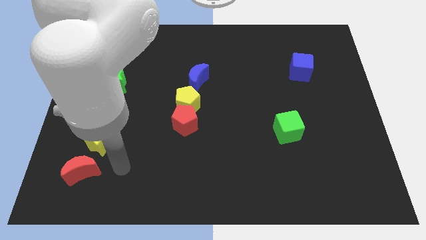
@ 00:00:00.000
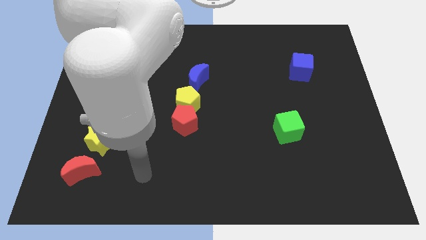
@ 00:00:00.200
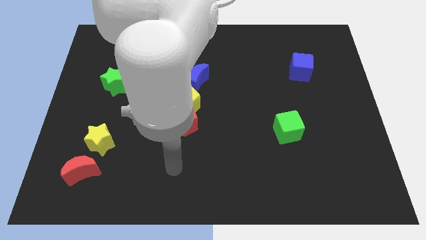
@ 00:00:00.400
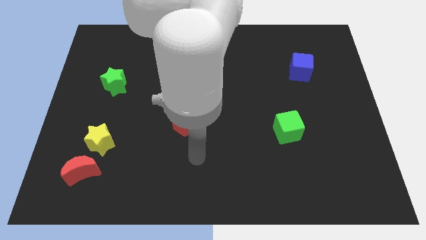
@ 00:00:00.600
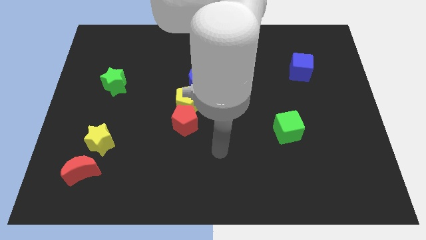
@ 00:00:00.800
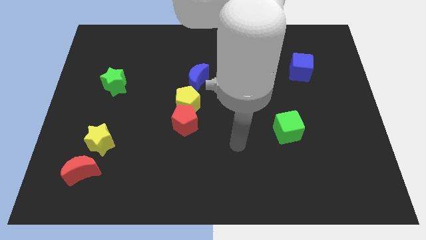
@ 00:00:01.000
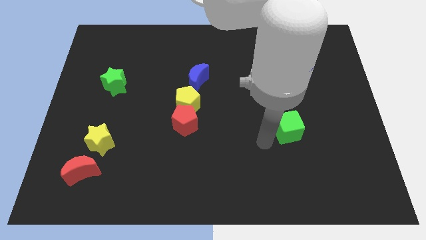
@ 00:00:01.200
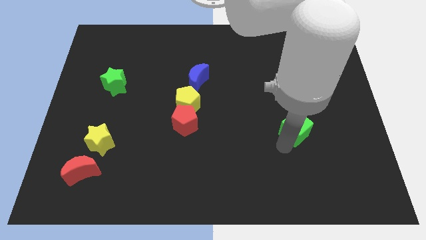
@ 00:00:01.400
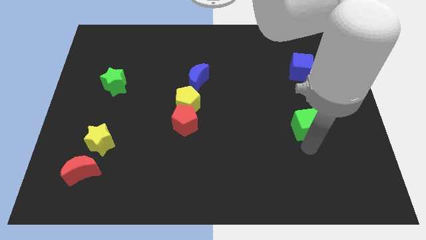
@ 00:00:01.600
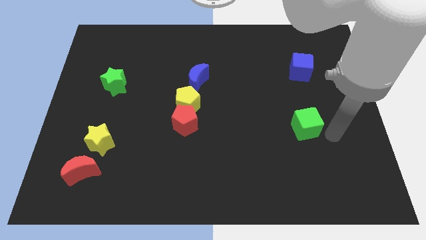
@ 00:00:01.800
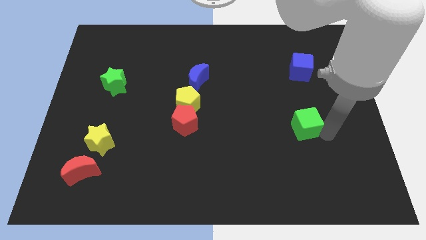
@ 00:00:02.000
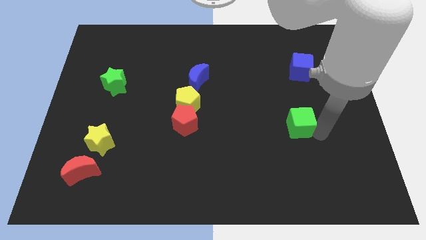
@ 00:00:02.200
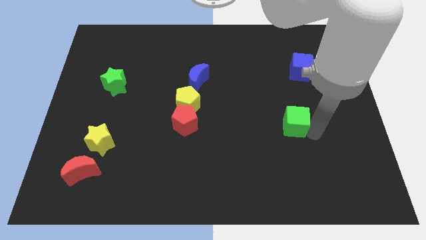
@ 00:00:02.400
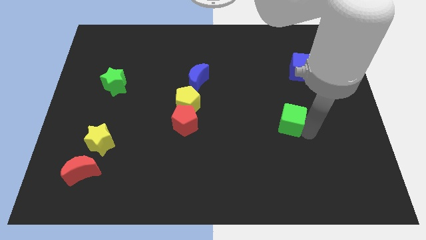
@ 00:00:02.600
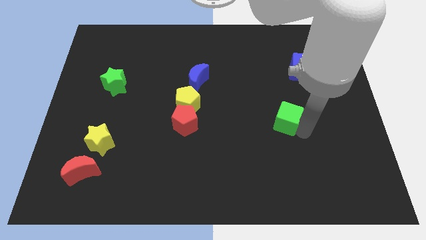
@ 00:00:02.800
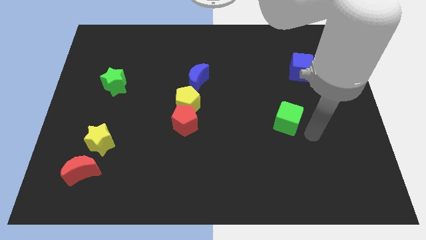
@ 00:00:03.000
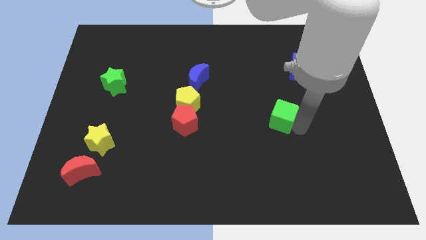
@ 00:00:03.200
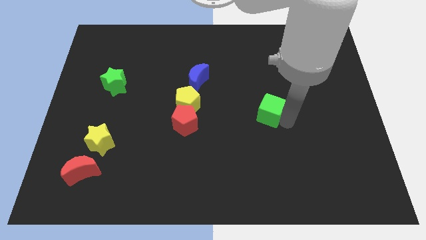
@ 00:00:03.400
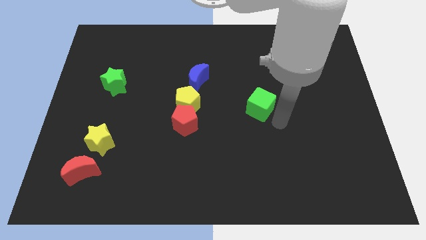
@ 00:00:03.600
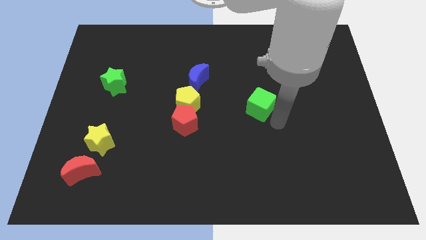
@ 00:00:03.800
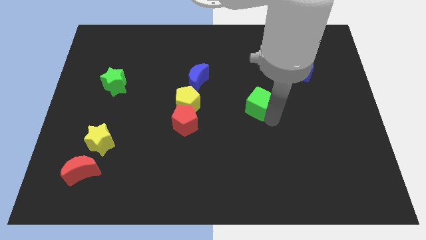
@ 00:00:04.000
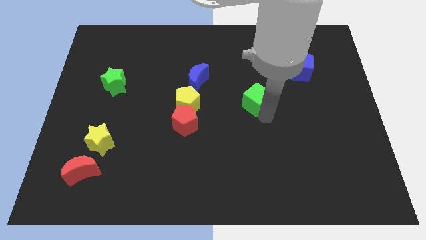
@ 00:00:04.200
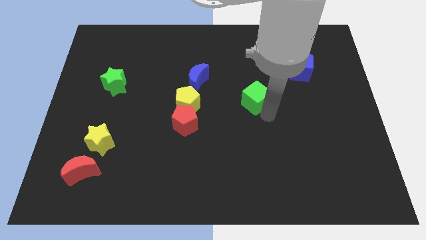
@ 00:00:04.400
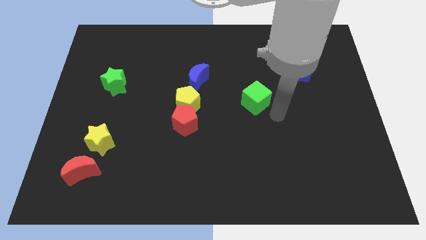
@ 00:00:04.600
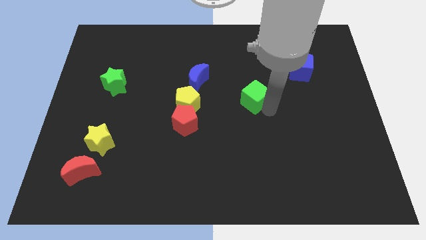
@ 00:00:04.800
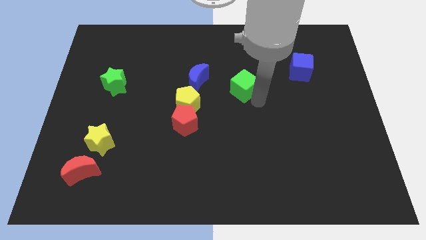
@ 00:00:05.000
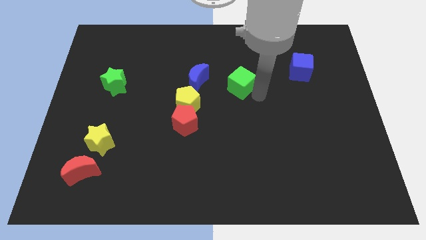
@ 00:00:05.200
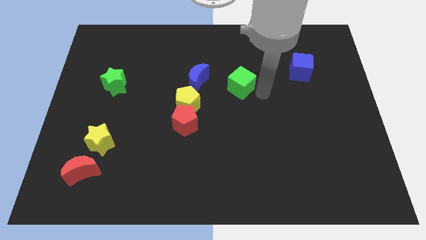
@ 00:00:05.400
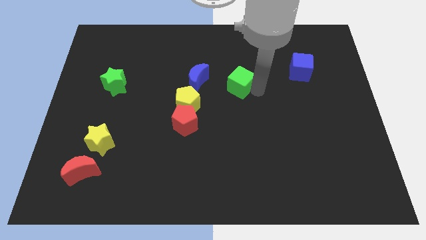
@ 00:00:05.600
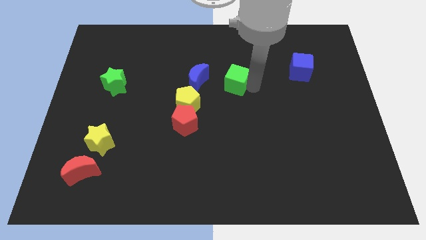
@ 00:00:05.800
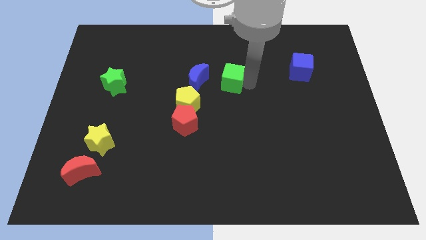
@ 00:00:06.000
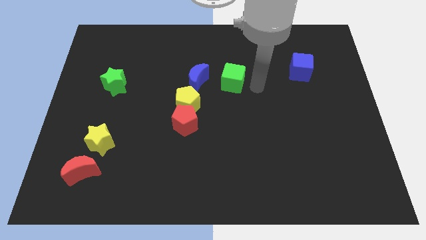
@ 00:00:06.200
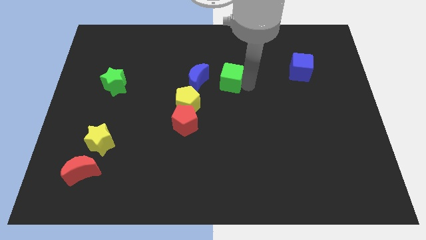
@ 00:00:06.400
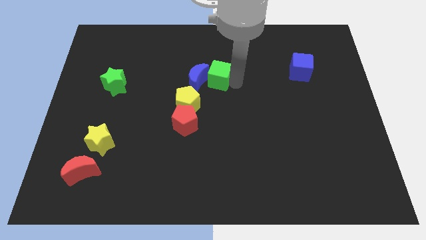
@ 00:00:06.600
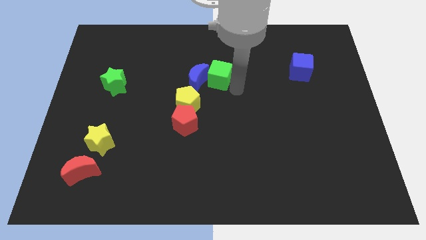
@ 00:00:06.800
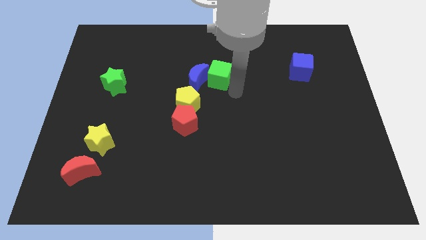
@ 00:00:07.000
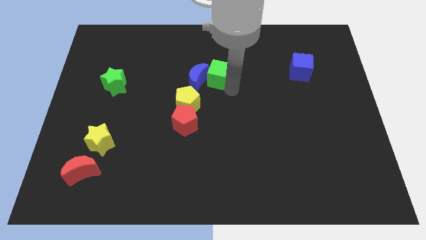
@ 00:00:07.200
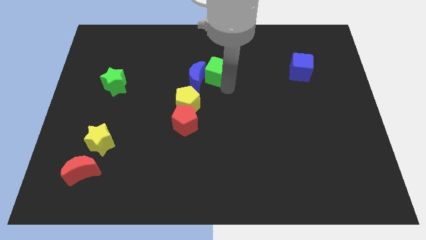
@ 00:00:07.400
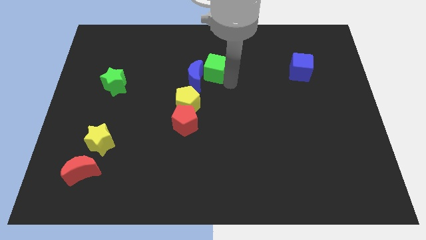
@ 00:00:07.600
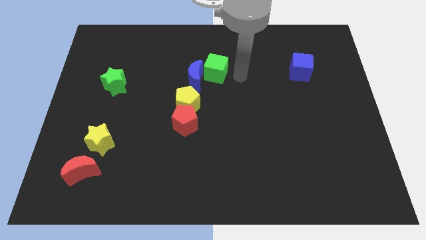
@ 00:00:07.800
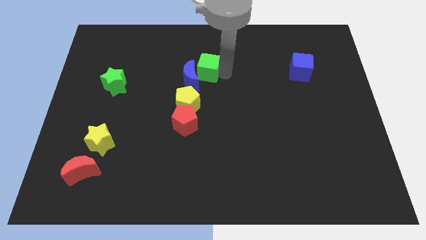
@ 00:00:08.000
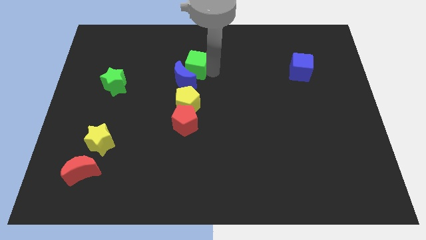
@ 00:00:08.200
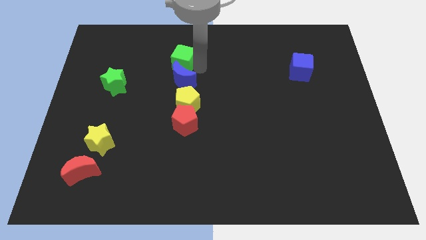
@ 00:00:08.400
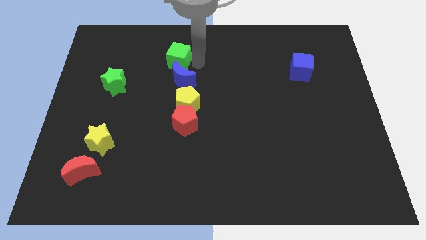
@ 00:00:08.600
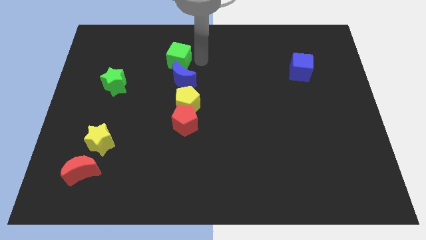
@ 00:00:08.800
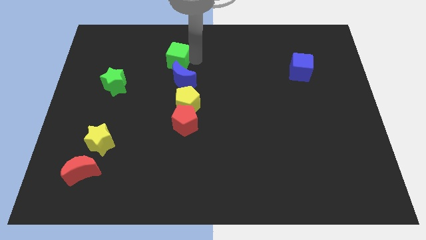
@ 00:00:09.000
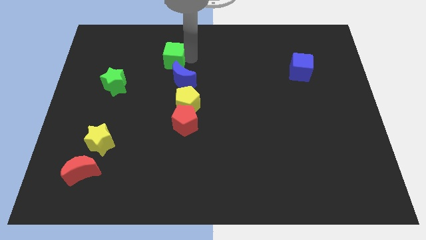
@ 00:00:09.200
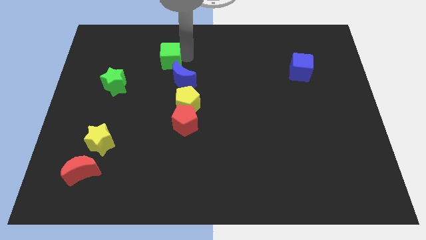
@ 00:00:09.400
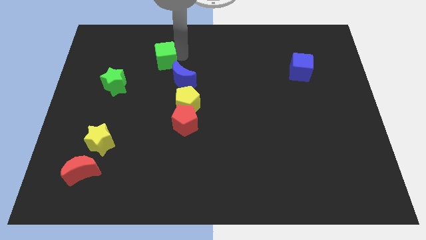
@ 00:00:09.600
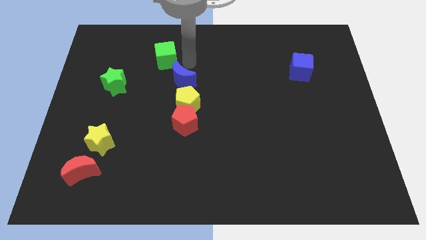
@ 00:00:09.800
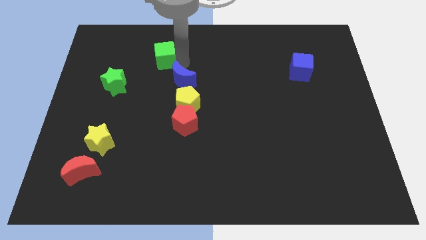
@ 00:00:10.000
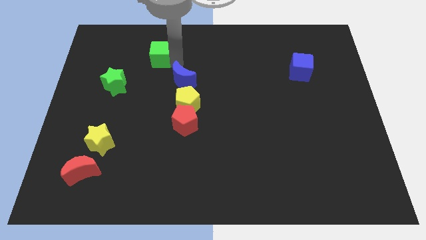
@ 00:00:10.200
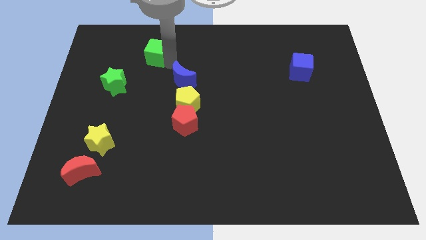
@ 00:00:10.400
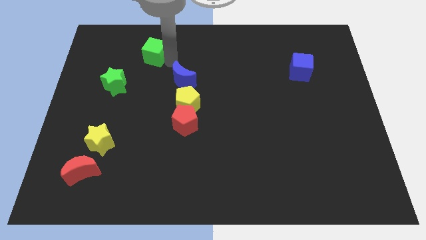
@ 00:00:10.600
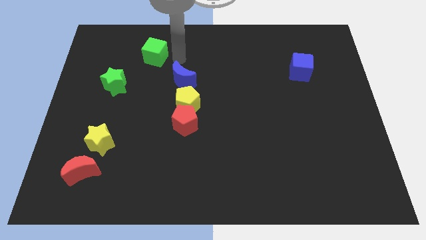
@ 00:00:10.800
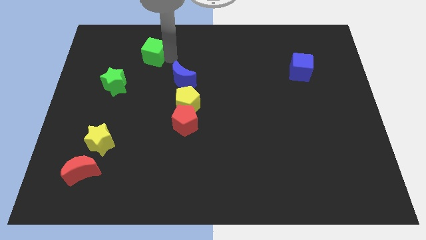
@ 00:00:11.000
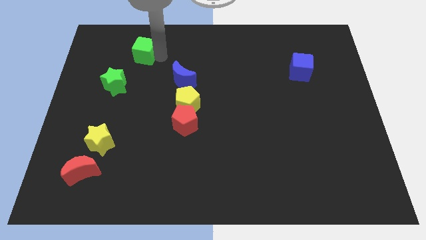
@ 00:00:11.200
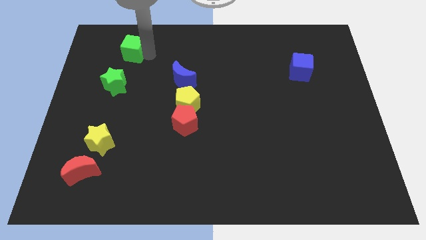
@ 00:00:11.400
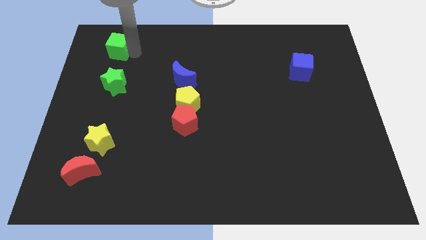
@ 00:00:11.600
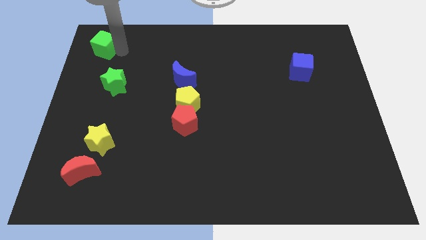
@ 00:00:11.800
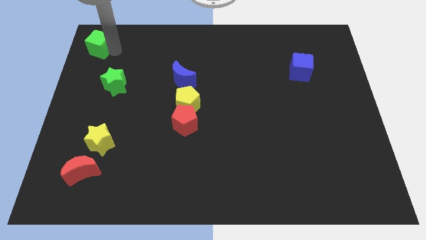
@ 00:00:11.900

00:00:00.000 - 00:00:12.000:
put the green cube to the top left of the board
